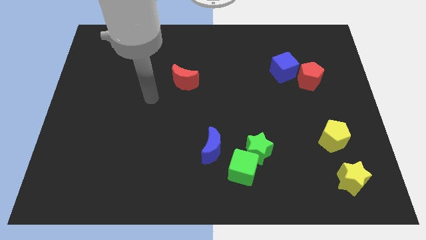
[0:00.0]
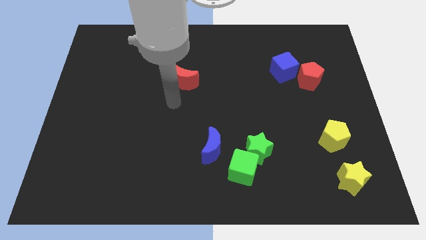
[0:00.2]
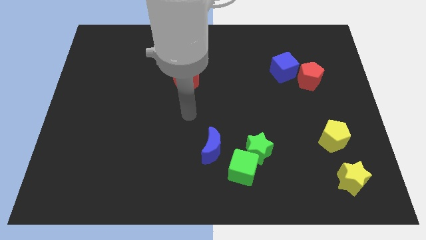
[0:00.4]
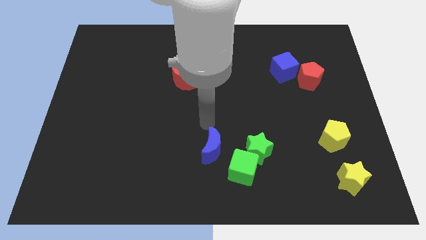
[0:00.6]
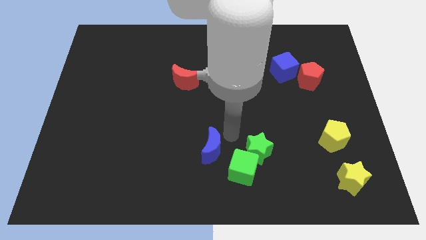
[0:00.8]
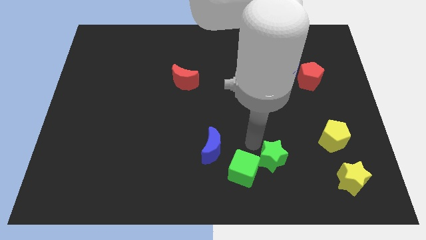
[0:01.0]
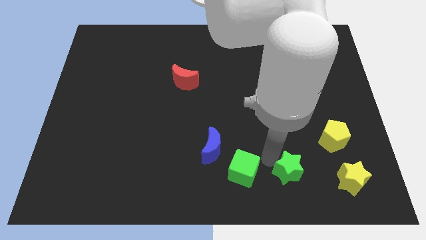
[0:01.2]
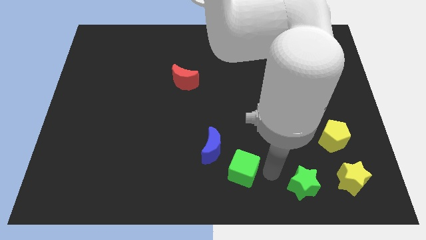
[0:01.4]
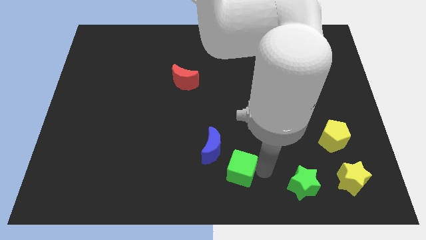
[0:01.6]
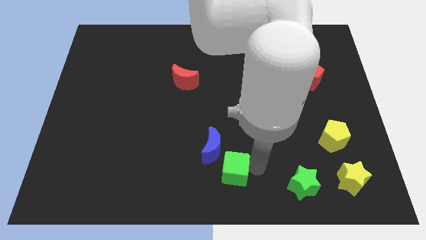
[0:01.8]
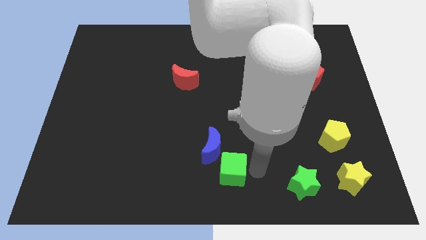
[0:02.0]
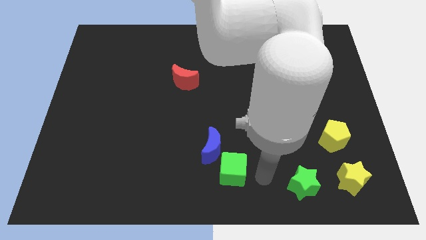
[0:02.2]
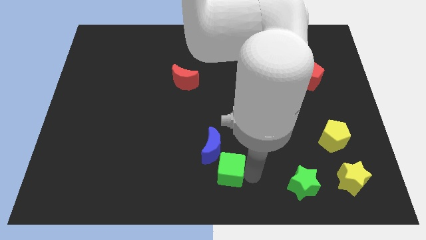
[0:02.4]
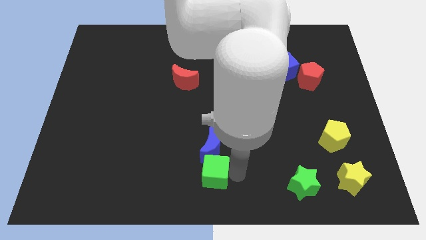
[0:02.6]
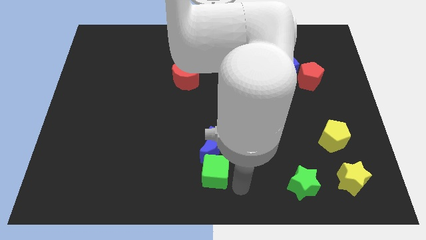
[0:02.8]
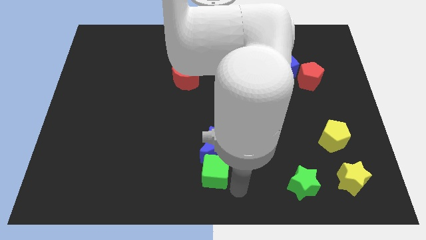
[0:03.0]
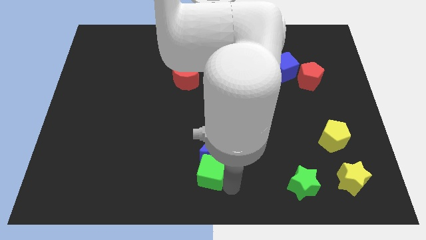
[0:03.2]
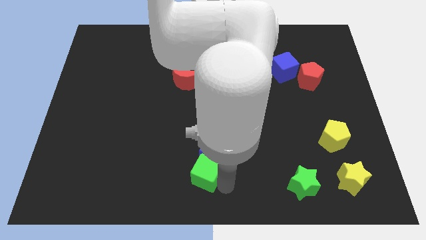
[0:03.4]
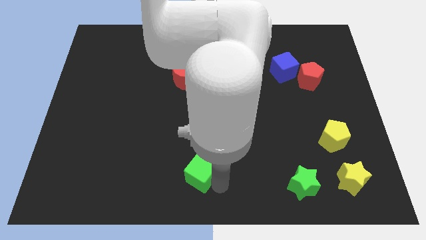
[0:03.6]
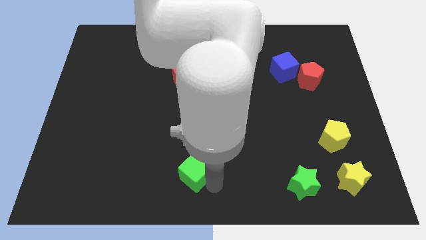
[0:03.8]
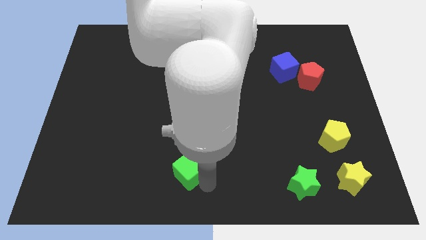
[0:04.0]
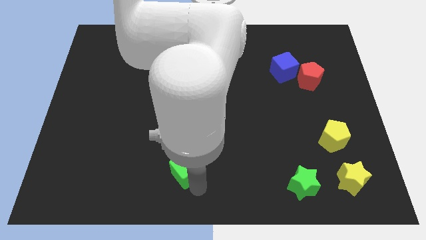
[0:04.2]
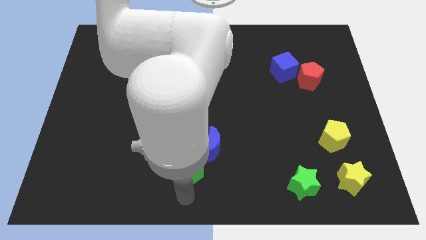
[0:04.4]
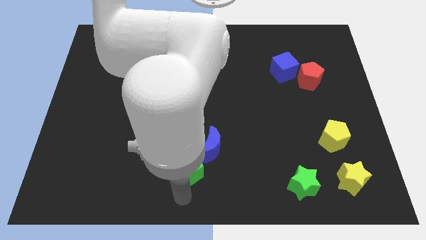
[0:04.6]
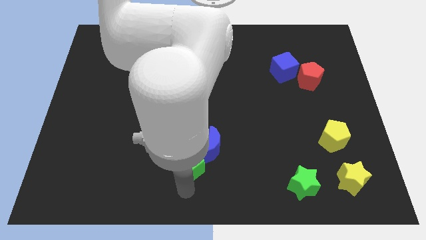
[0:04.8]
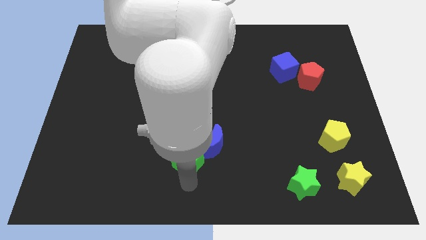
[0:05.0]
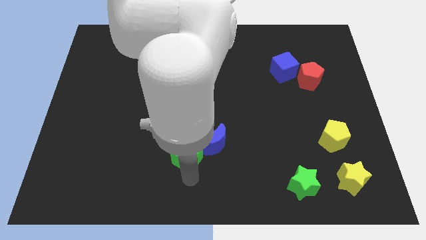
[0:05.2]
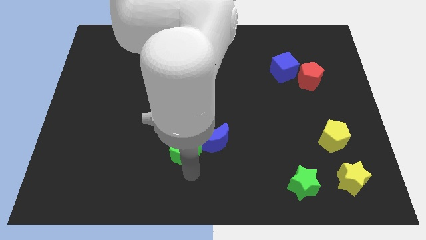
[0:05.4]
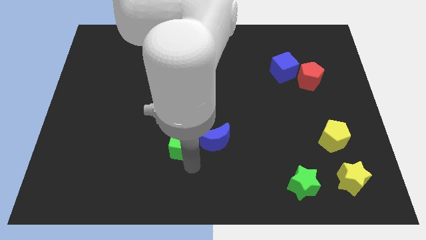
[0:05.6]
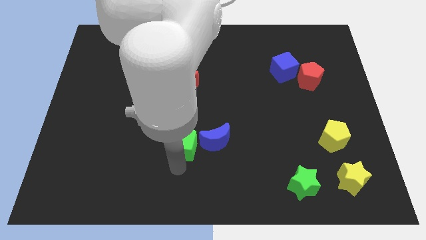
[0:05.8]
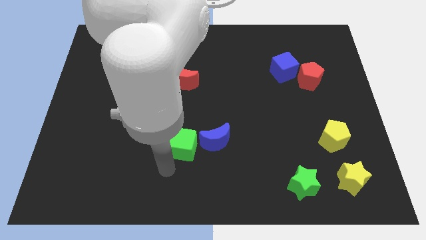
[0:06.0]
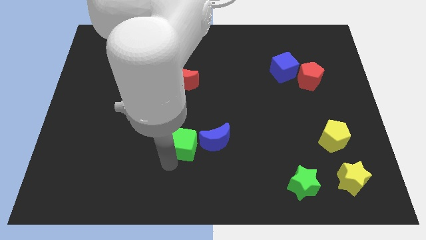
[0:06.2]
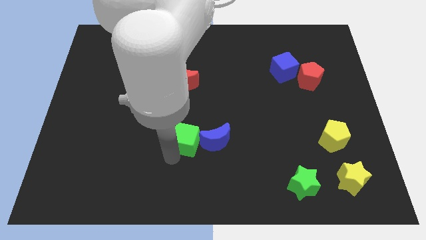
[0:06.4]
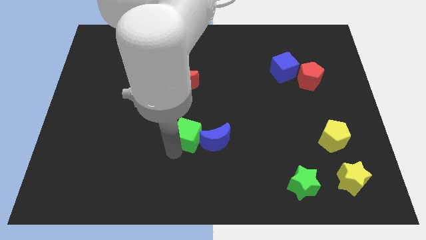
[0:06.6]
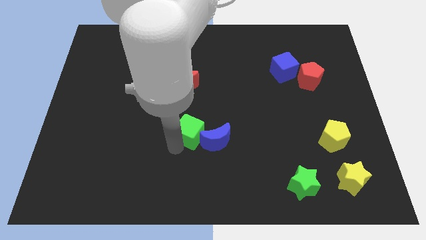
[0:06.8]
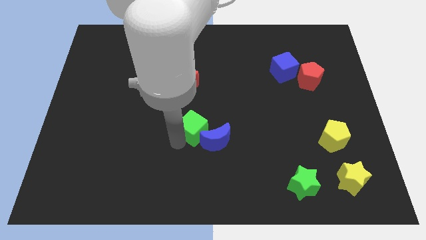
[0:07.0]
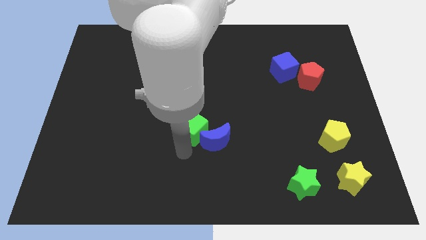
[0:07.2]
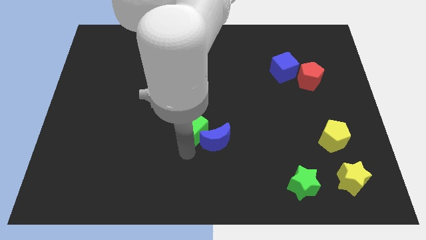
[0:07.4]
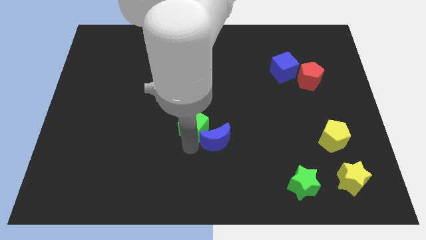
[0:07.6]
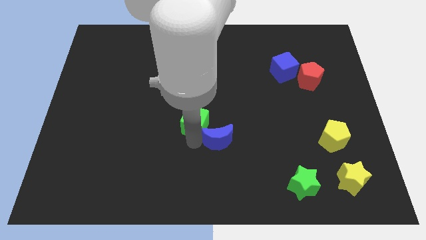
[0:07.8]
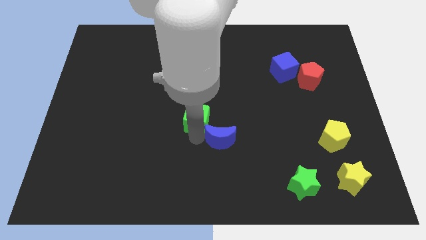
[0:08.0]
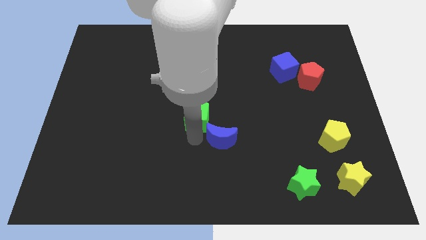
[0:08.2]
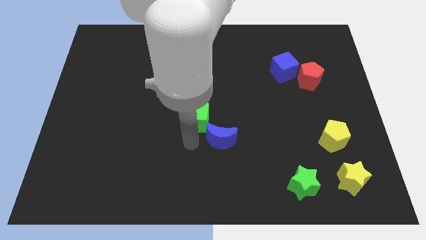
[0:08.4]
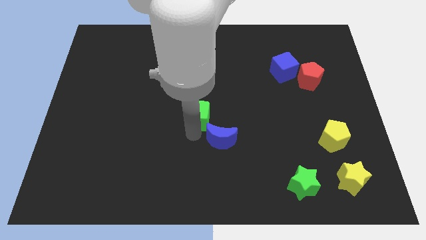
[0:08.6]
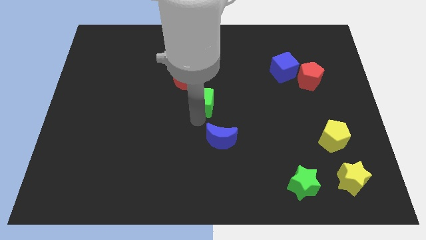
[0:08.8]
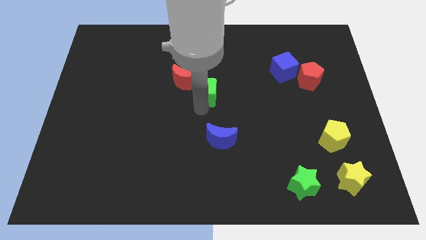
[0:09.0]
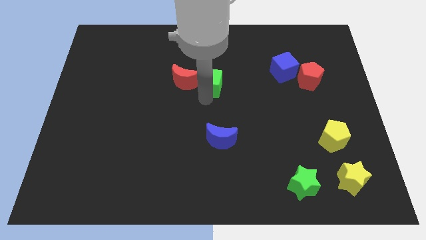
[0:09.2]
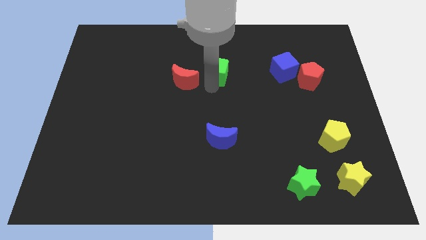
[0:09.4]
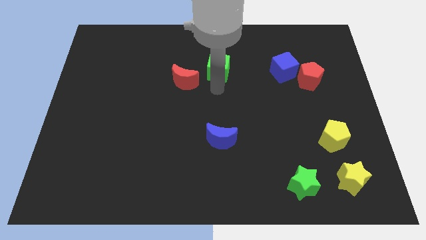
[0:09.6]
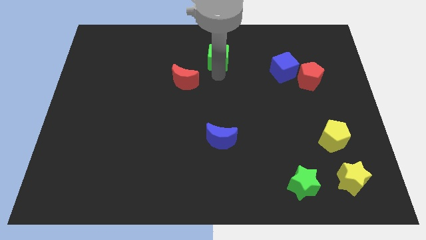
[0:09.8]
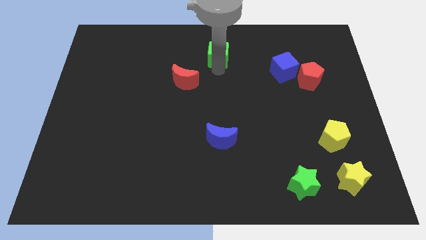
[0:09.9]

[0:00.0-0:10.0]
move the green cube to the towards your base

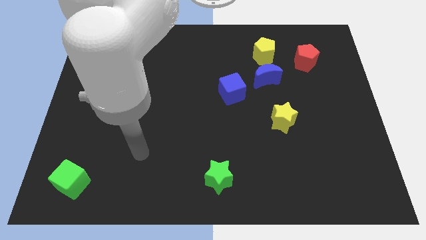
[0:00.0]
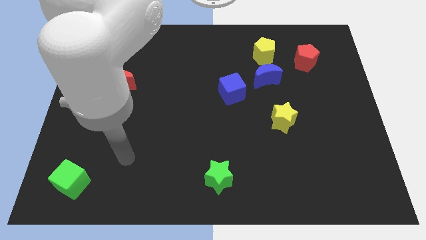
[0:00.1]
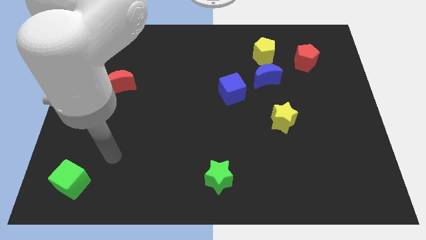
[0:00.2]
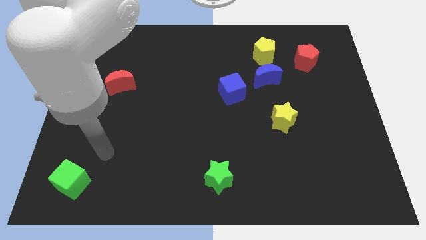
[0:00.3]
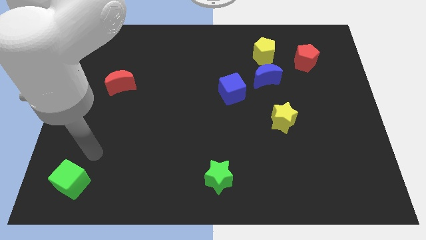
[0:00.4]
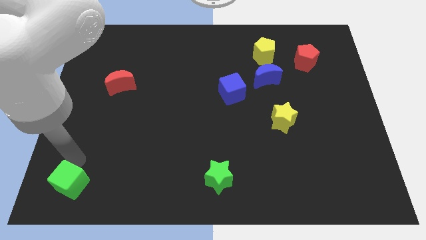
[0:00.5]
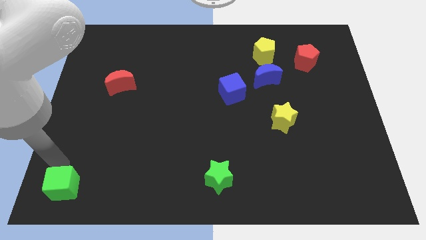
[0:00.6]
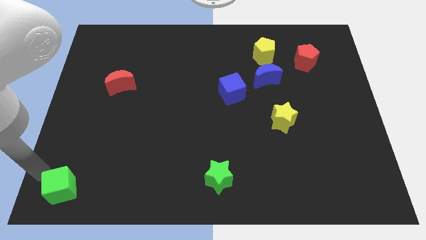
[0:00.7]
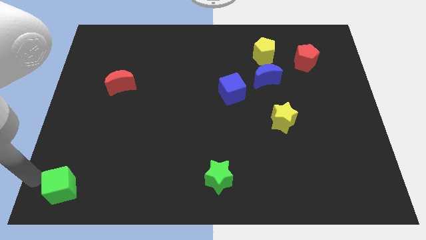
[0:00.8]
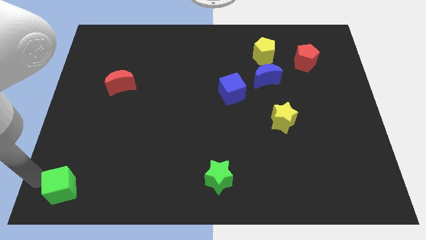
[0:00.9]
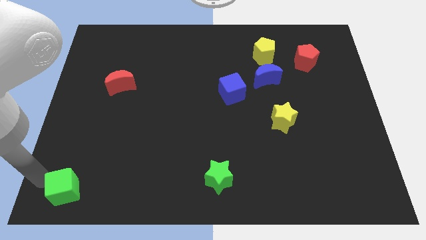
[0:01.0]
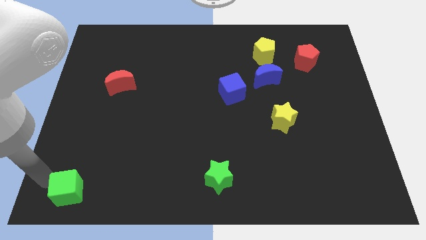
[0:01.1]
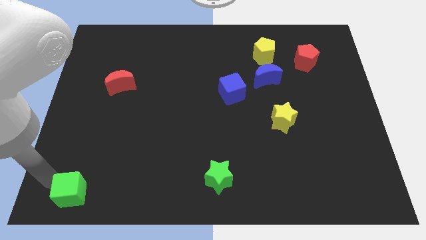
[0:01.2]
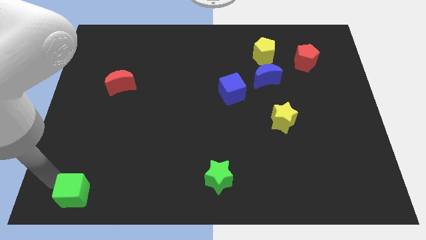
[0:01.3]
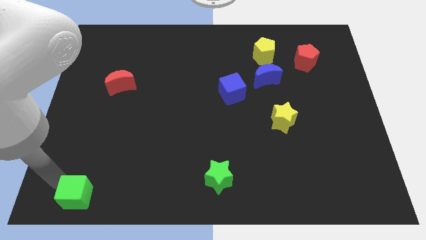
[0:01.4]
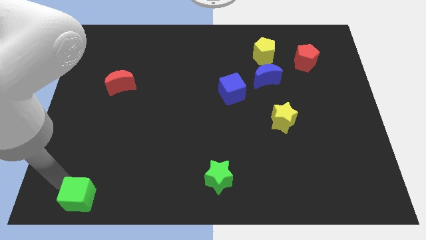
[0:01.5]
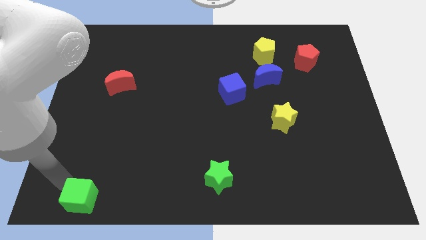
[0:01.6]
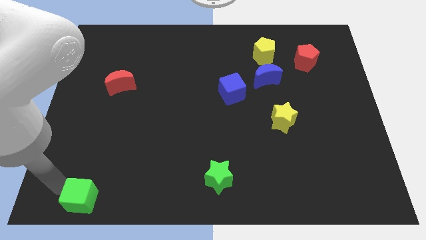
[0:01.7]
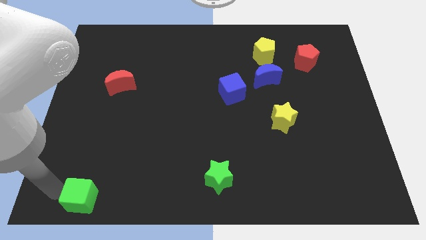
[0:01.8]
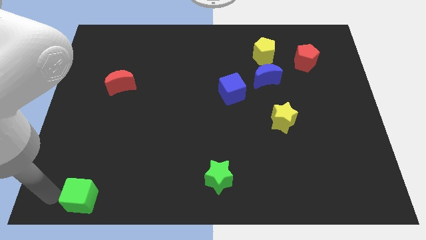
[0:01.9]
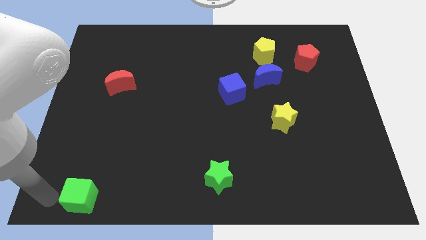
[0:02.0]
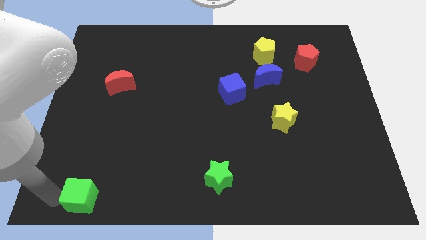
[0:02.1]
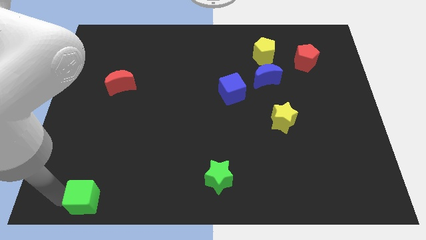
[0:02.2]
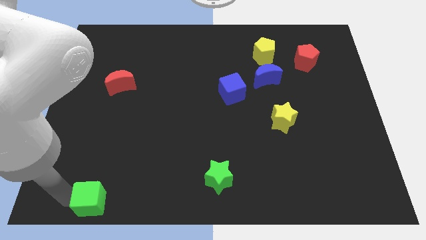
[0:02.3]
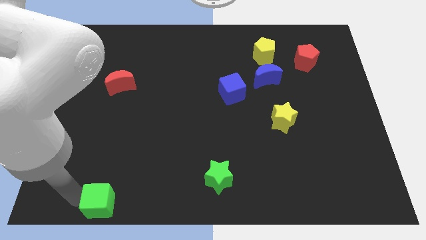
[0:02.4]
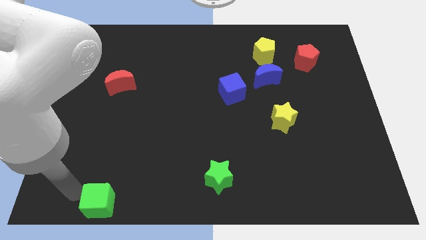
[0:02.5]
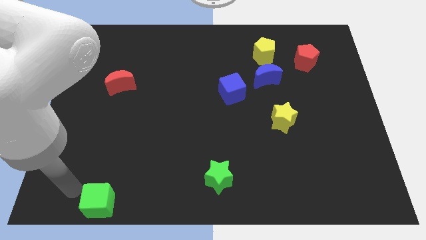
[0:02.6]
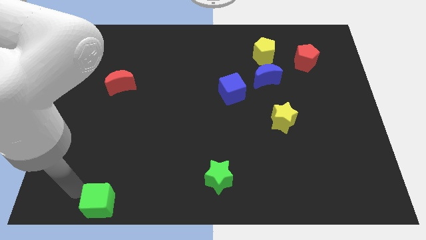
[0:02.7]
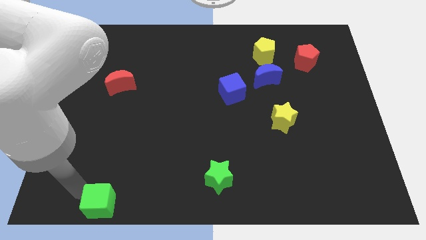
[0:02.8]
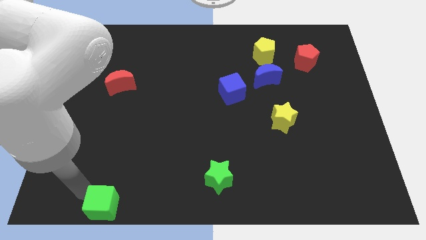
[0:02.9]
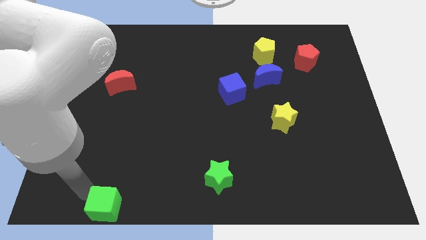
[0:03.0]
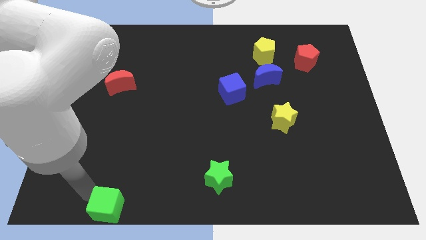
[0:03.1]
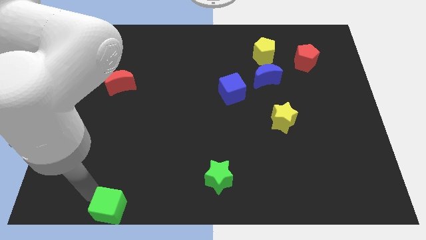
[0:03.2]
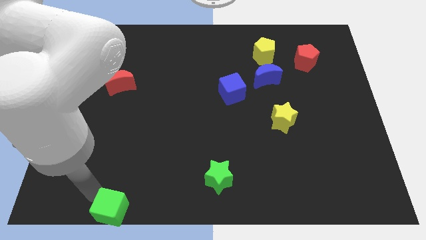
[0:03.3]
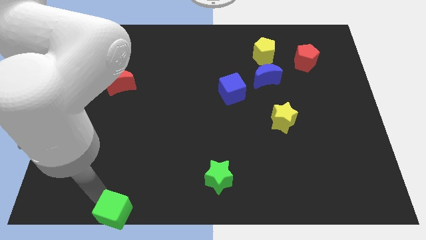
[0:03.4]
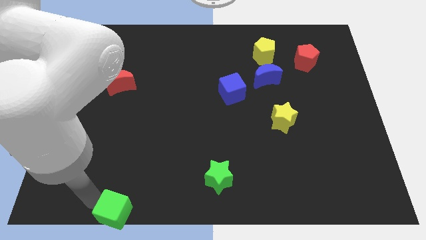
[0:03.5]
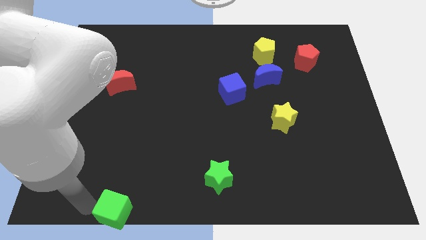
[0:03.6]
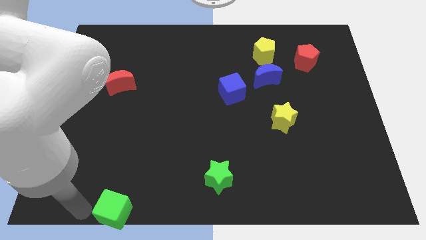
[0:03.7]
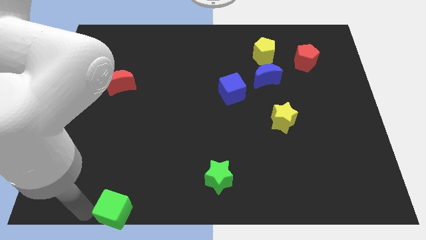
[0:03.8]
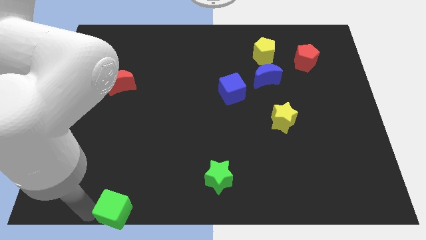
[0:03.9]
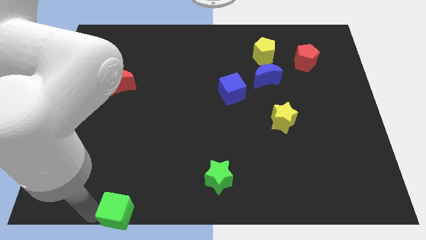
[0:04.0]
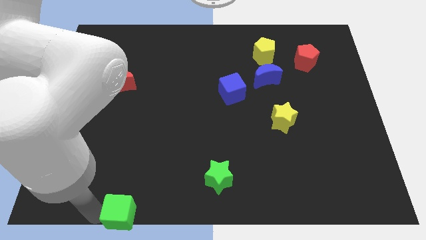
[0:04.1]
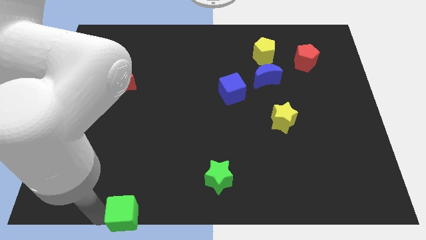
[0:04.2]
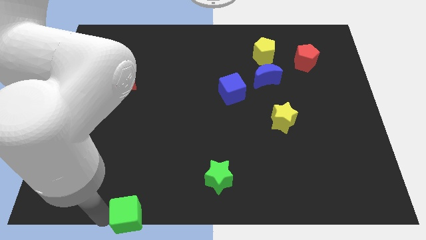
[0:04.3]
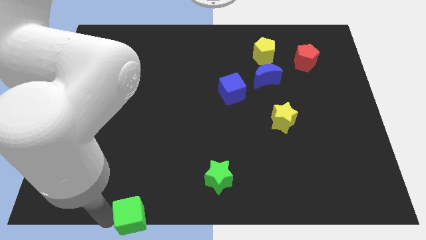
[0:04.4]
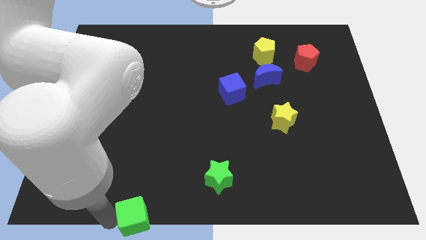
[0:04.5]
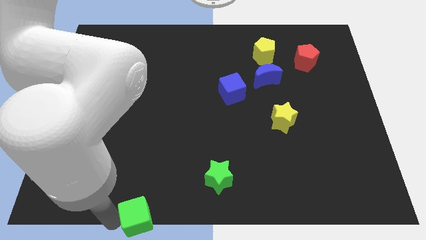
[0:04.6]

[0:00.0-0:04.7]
put the green cube to the bottom
